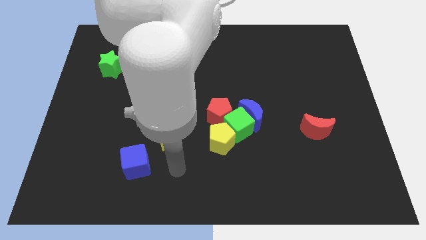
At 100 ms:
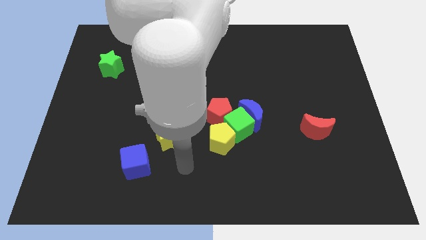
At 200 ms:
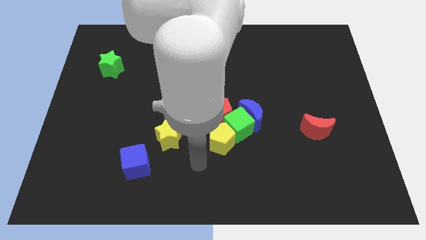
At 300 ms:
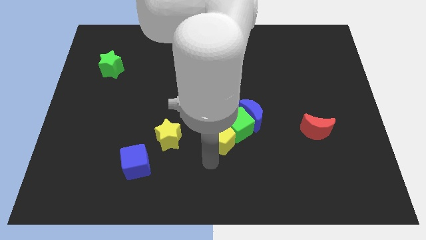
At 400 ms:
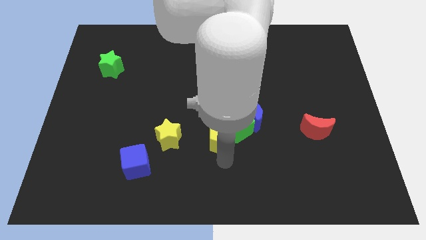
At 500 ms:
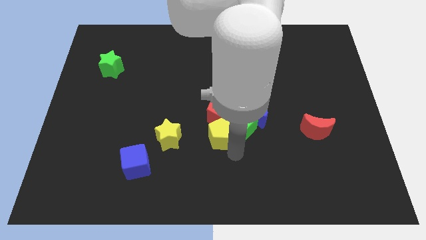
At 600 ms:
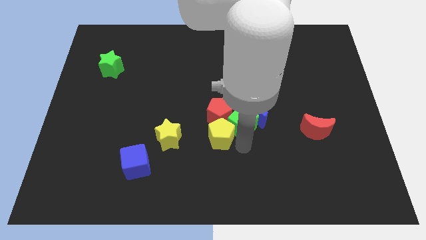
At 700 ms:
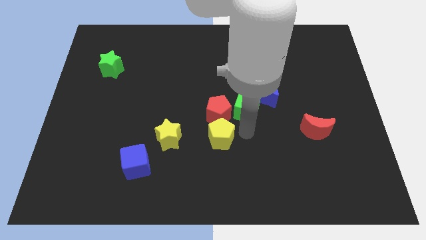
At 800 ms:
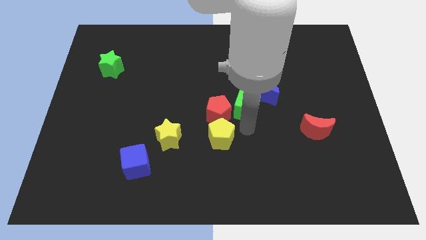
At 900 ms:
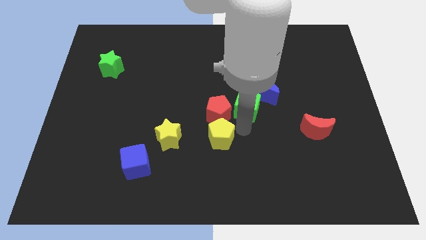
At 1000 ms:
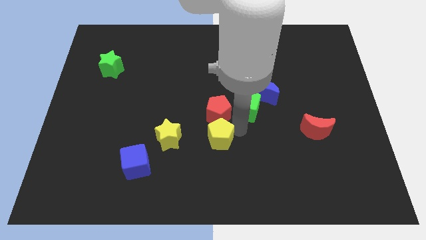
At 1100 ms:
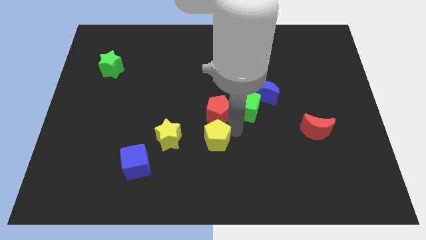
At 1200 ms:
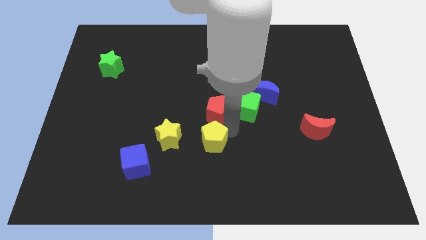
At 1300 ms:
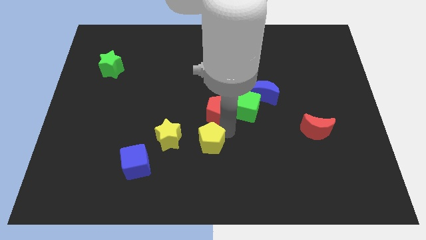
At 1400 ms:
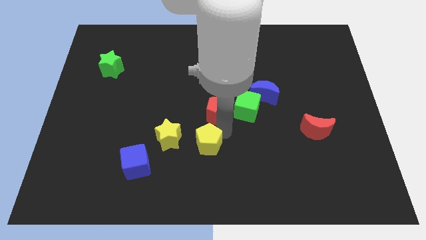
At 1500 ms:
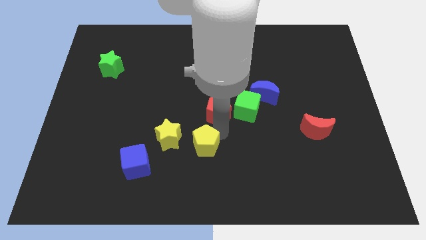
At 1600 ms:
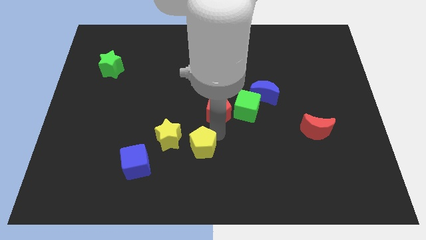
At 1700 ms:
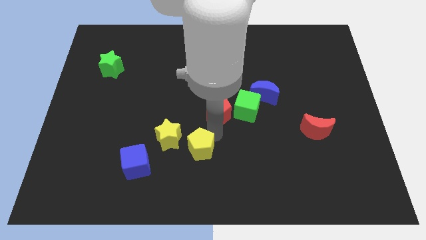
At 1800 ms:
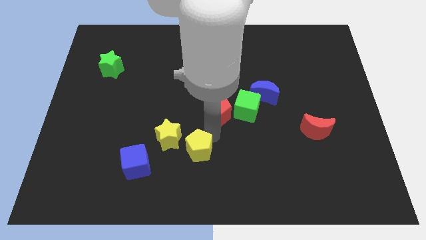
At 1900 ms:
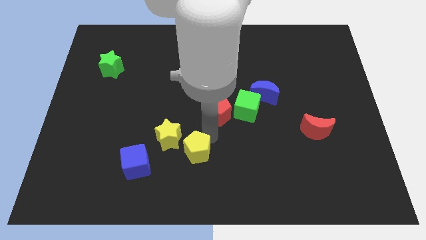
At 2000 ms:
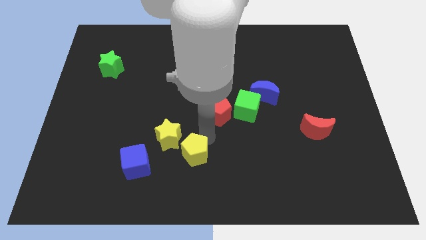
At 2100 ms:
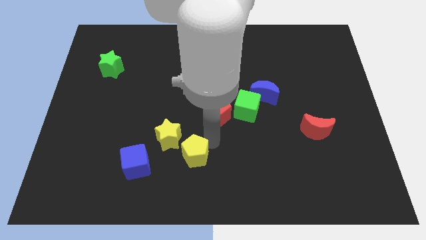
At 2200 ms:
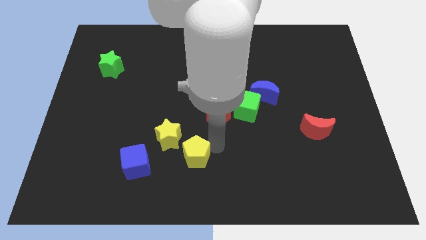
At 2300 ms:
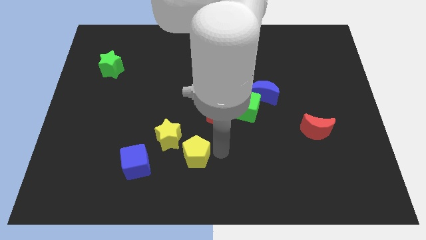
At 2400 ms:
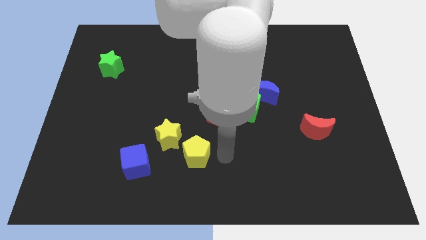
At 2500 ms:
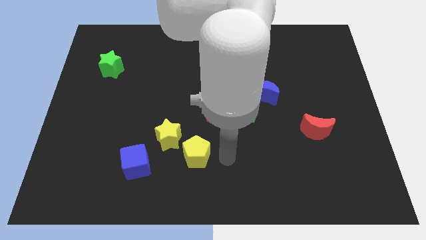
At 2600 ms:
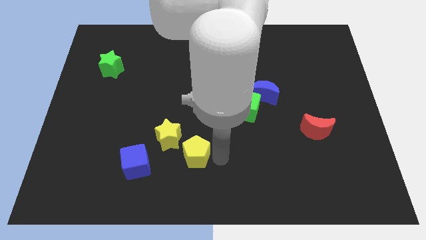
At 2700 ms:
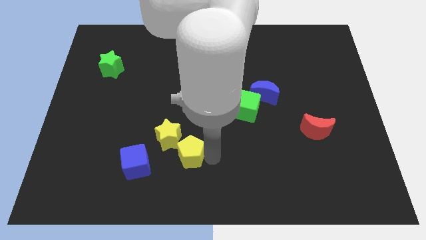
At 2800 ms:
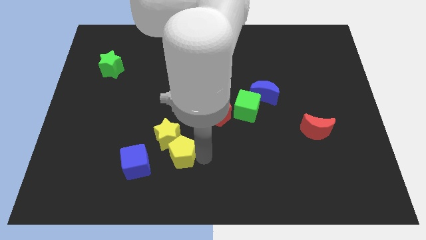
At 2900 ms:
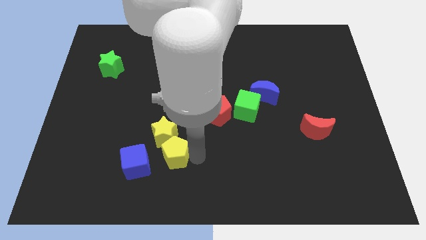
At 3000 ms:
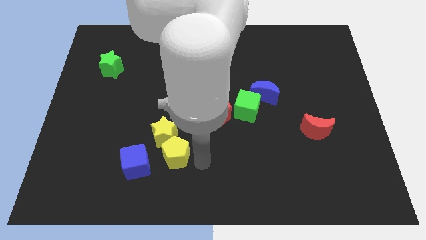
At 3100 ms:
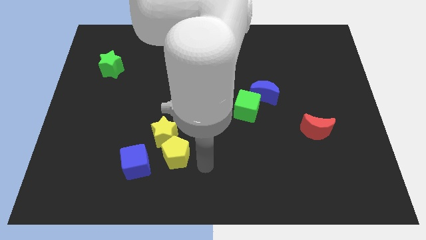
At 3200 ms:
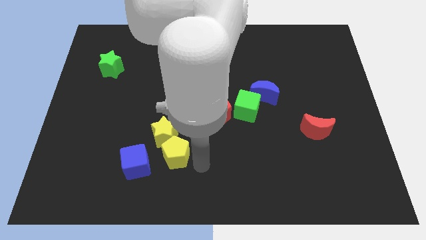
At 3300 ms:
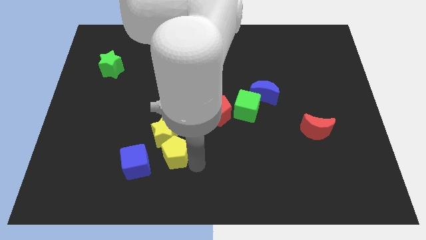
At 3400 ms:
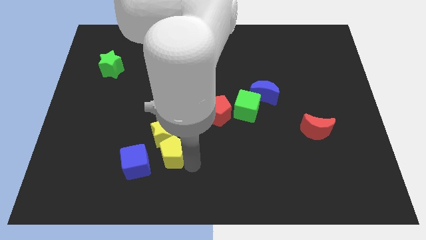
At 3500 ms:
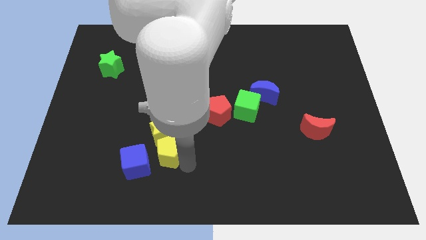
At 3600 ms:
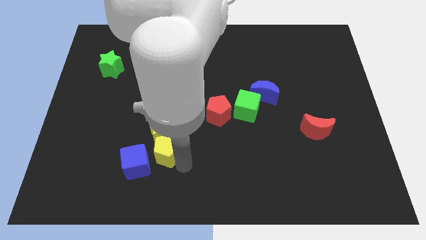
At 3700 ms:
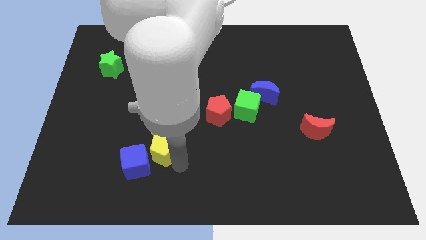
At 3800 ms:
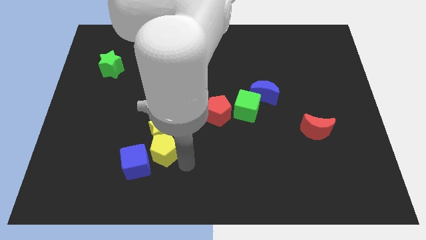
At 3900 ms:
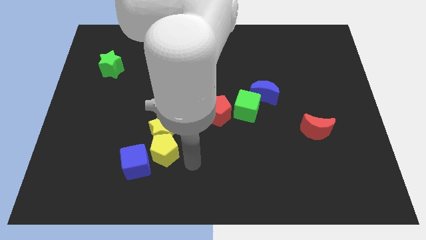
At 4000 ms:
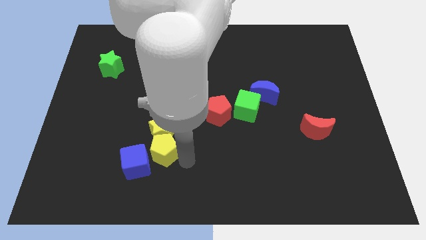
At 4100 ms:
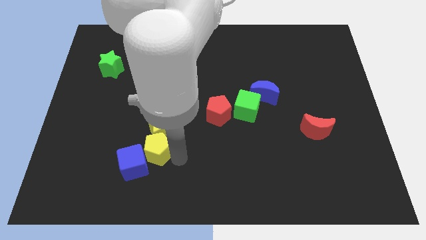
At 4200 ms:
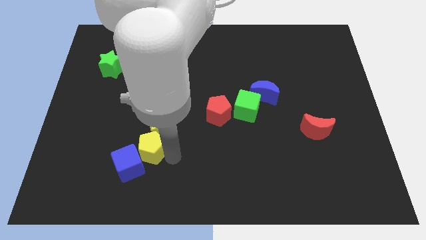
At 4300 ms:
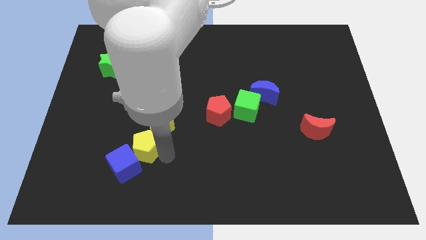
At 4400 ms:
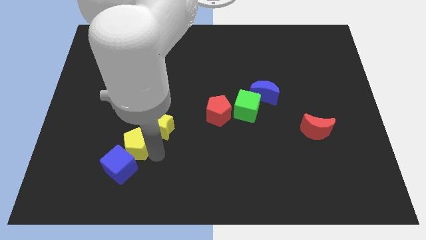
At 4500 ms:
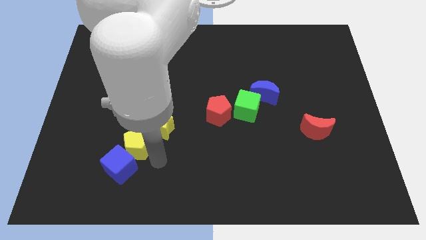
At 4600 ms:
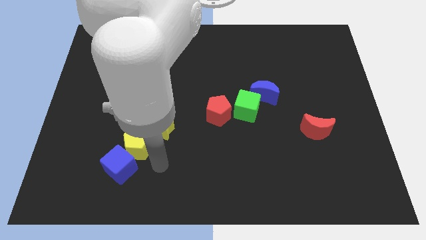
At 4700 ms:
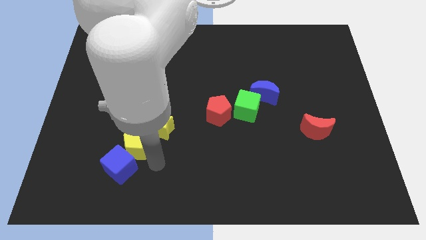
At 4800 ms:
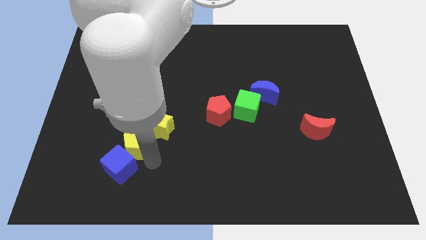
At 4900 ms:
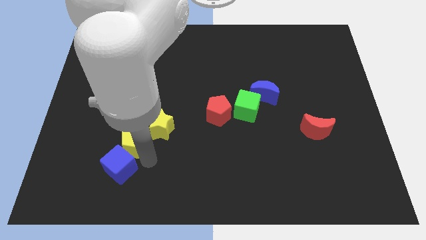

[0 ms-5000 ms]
move the yellow pentagon to the left of the yellow star

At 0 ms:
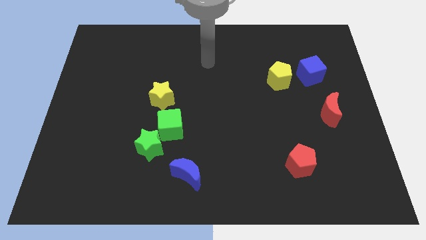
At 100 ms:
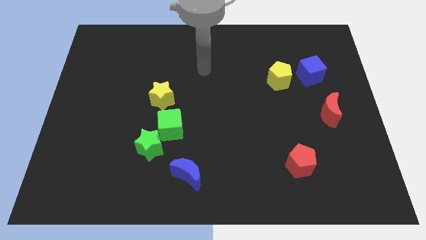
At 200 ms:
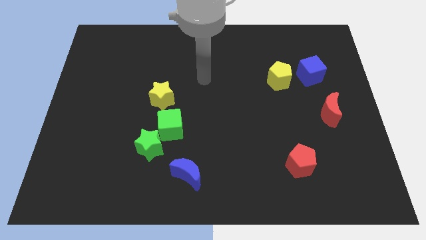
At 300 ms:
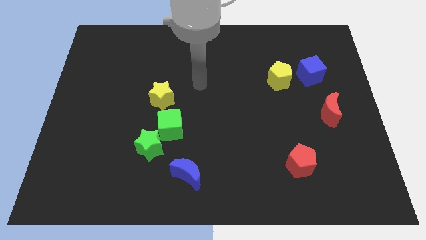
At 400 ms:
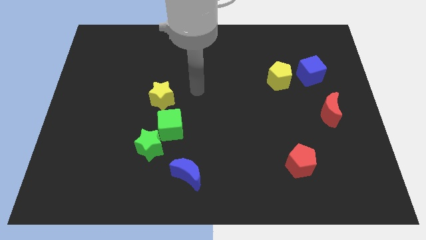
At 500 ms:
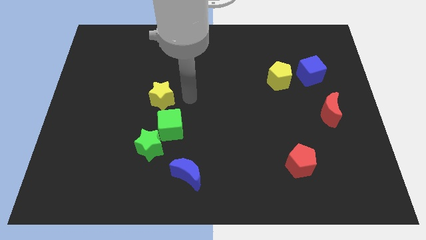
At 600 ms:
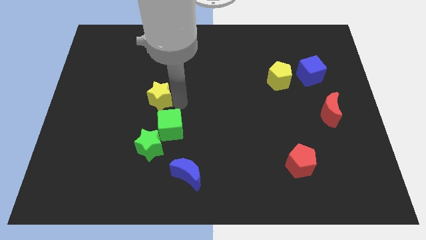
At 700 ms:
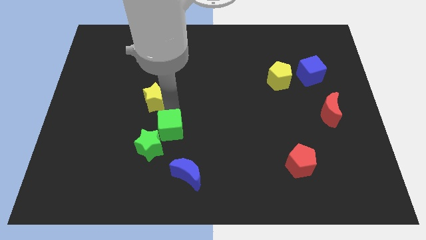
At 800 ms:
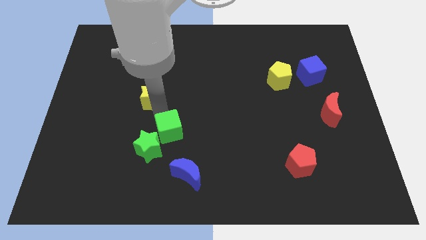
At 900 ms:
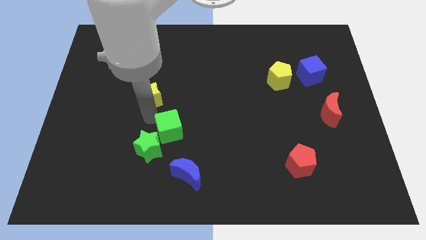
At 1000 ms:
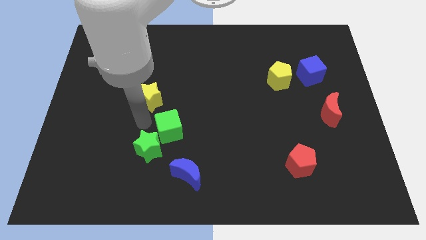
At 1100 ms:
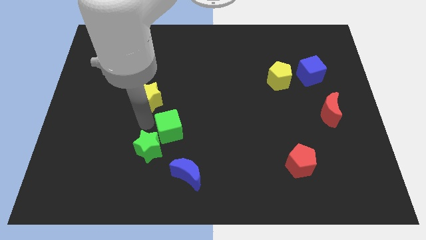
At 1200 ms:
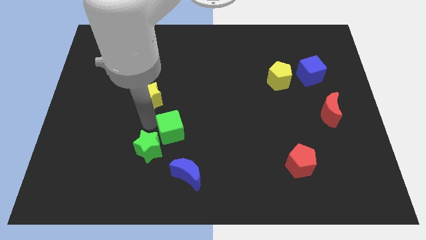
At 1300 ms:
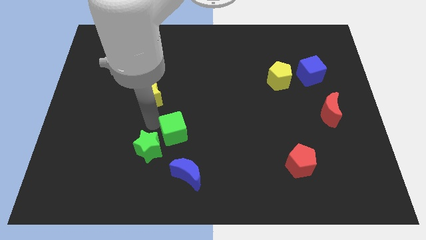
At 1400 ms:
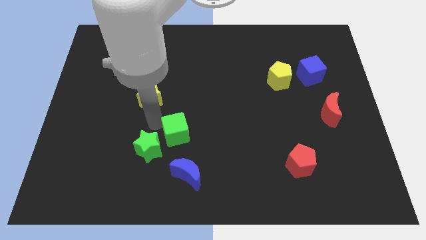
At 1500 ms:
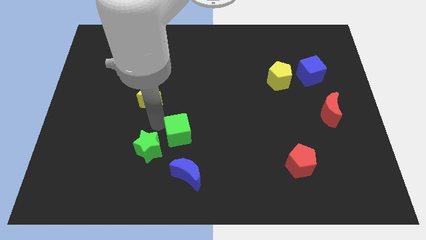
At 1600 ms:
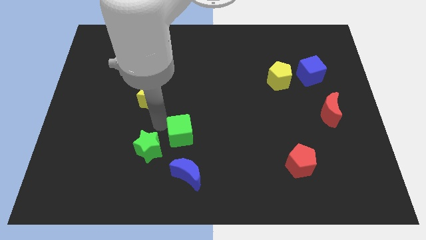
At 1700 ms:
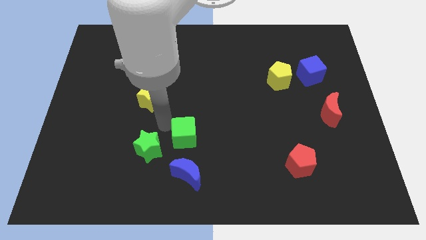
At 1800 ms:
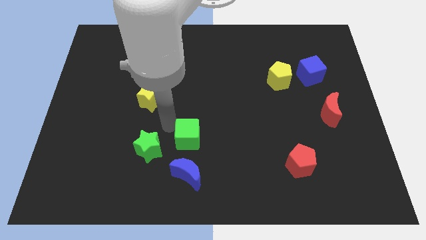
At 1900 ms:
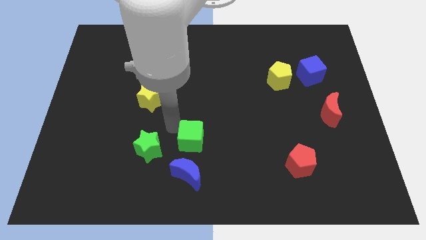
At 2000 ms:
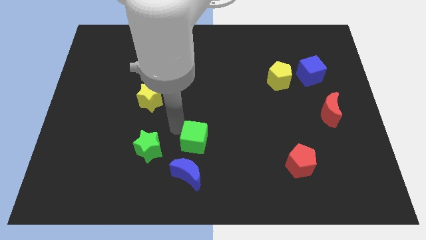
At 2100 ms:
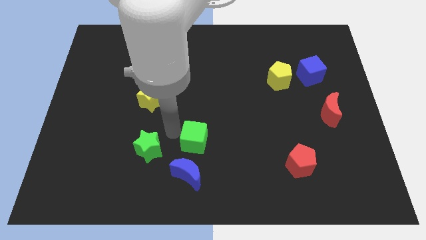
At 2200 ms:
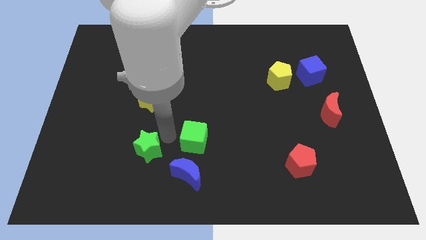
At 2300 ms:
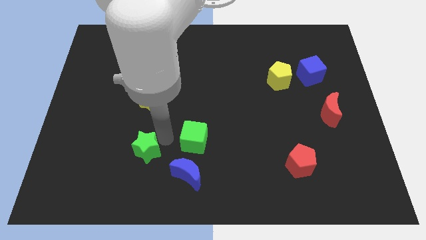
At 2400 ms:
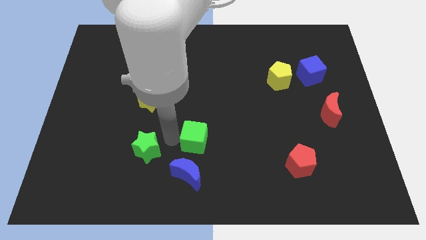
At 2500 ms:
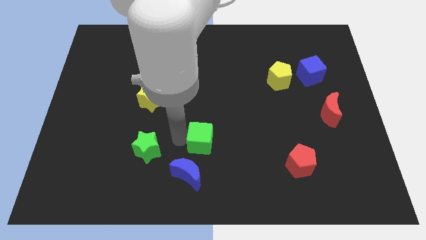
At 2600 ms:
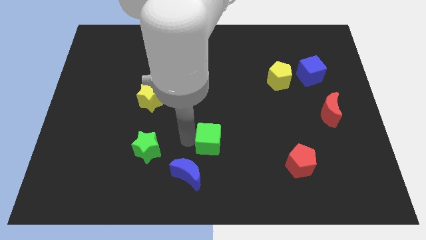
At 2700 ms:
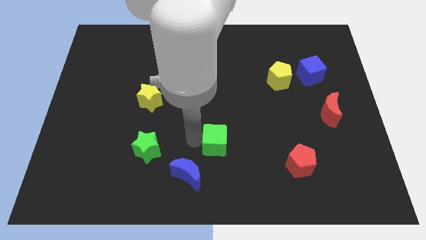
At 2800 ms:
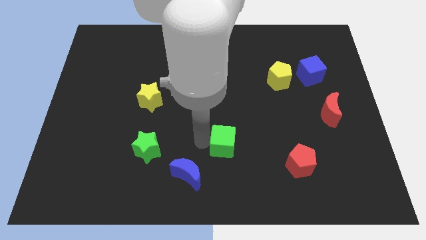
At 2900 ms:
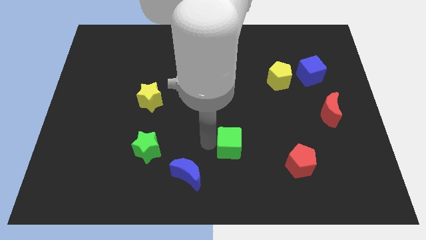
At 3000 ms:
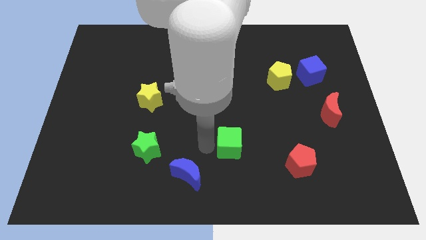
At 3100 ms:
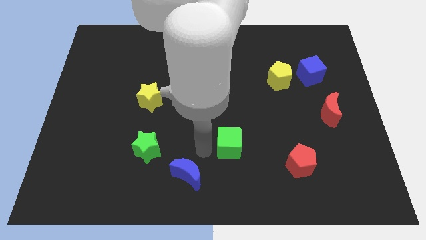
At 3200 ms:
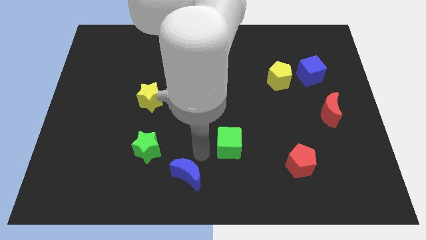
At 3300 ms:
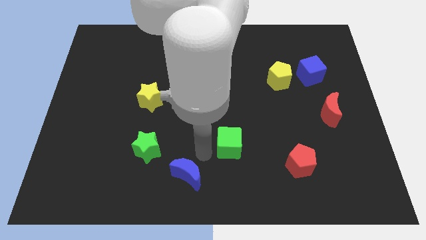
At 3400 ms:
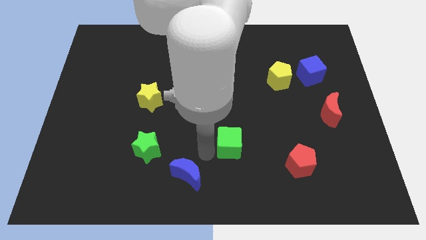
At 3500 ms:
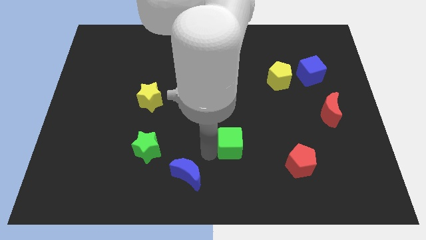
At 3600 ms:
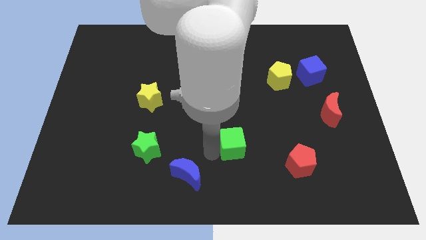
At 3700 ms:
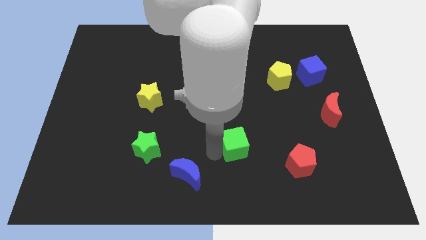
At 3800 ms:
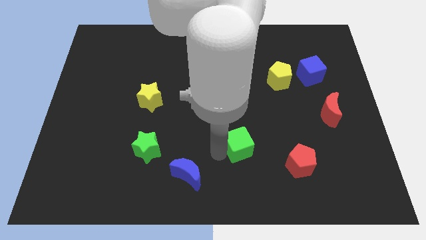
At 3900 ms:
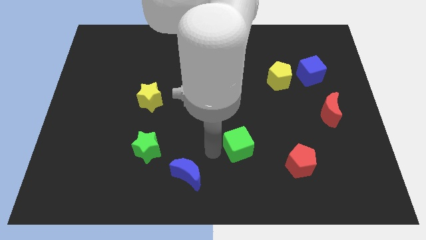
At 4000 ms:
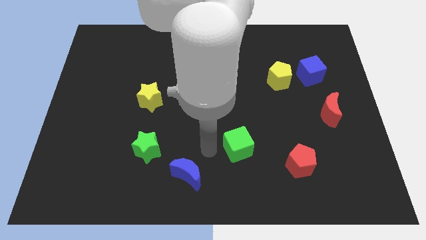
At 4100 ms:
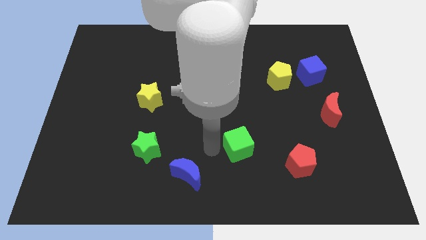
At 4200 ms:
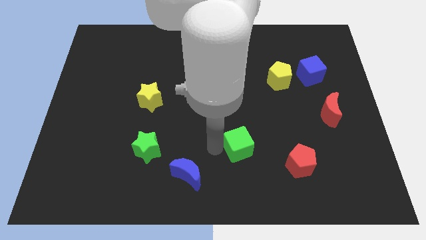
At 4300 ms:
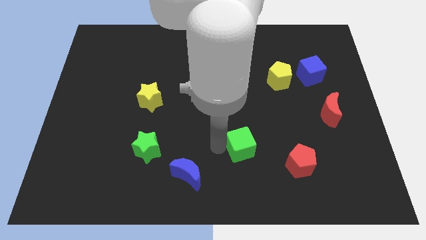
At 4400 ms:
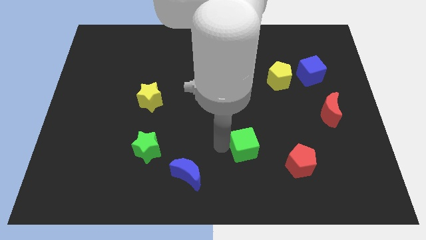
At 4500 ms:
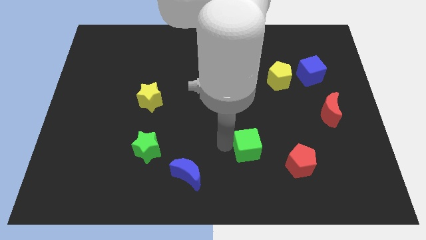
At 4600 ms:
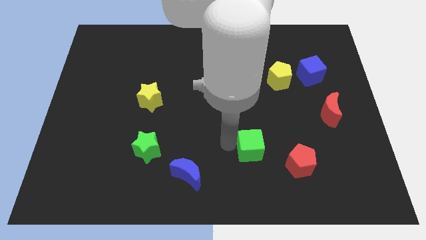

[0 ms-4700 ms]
put the green cube to the top left of the red pentagon
